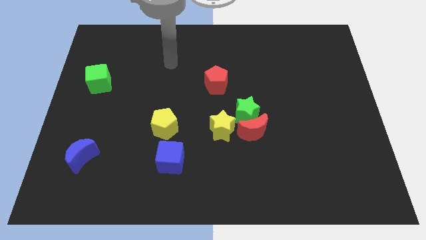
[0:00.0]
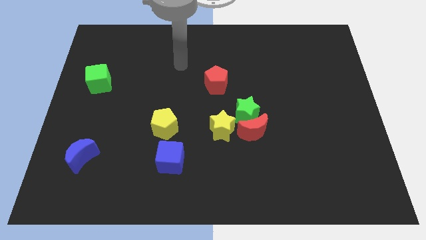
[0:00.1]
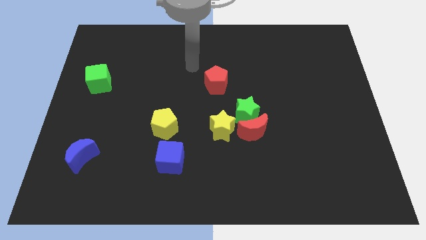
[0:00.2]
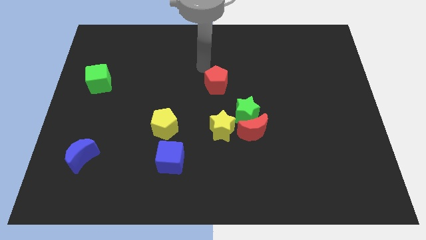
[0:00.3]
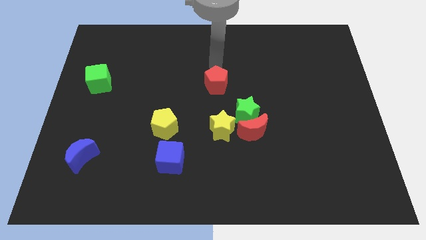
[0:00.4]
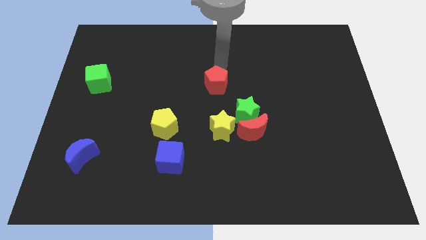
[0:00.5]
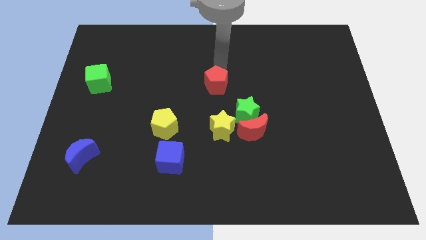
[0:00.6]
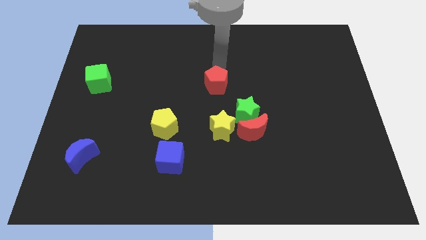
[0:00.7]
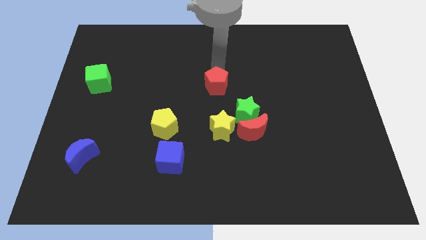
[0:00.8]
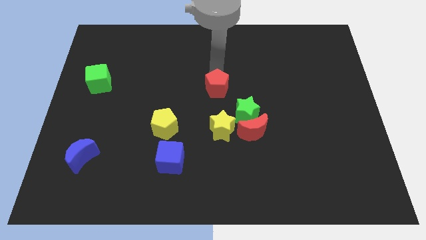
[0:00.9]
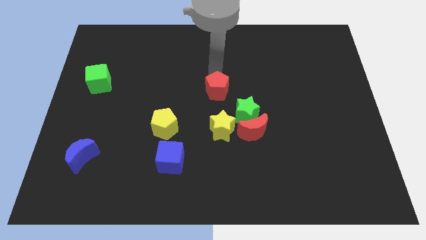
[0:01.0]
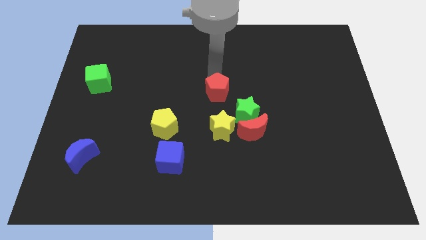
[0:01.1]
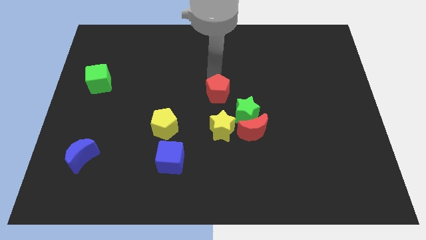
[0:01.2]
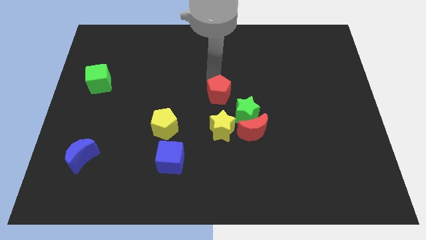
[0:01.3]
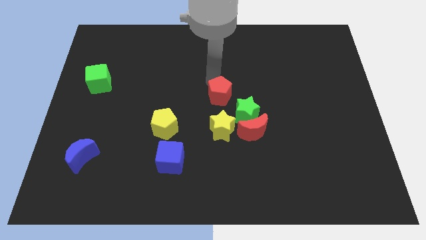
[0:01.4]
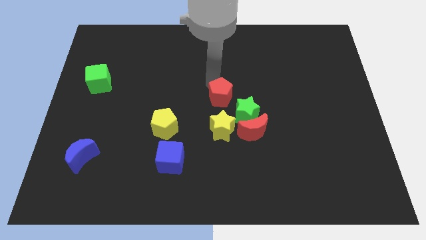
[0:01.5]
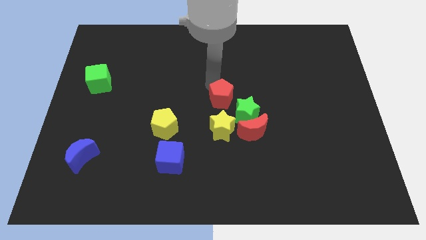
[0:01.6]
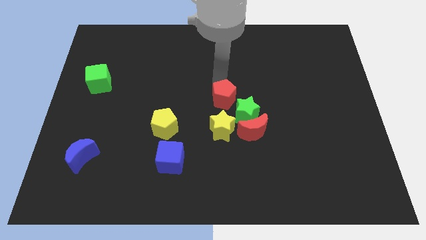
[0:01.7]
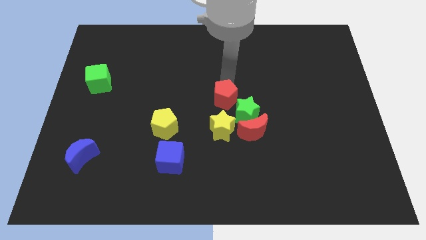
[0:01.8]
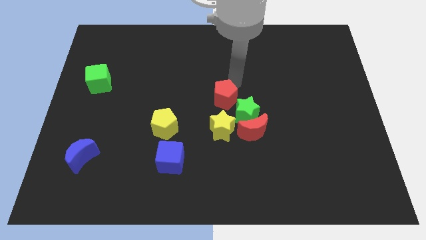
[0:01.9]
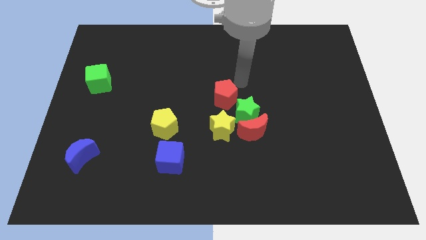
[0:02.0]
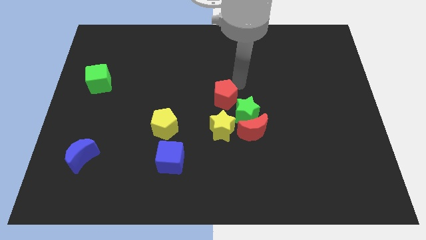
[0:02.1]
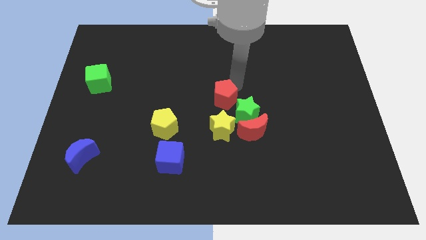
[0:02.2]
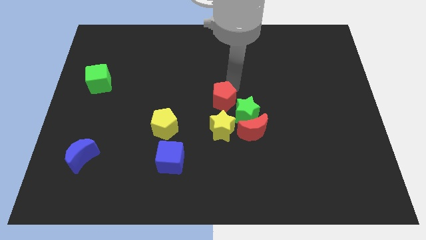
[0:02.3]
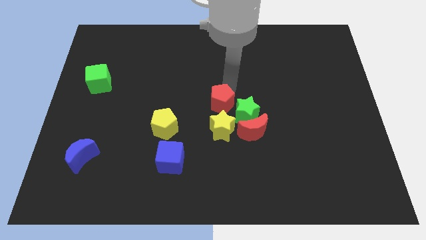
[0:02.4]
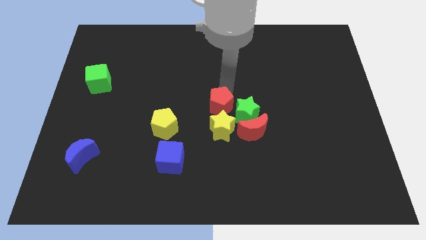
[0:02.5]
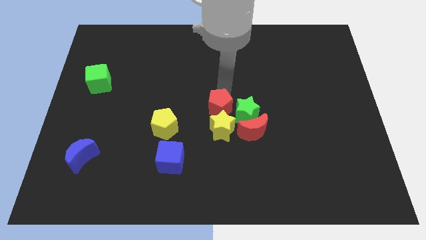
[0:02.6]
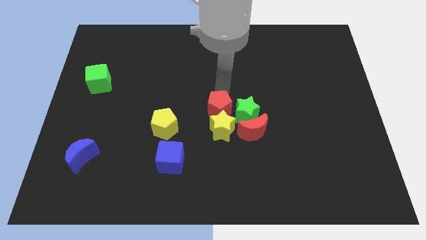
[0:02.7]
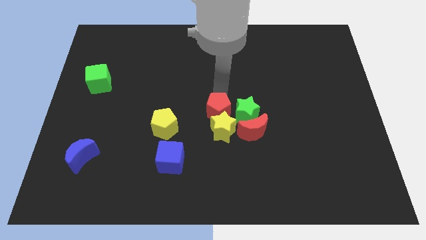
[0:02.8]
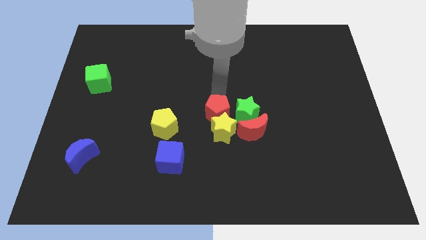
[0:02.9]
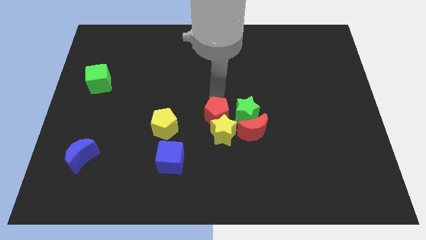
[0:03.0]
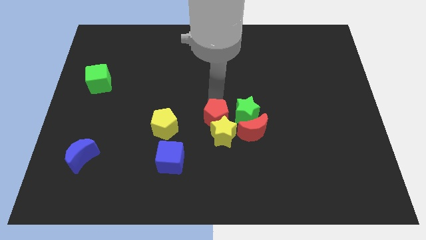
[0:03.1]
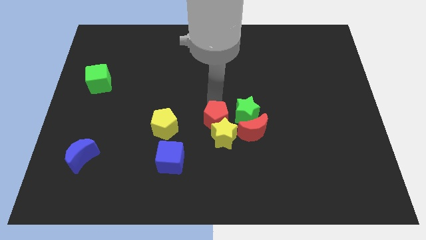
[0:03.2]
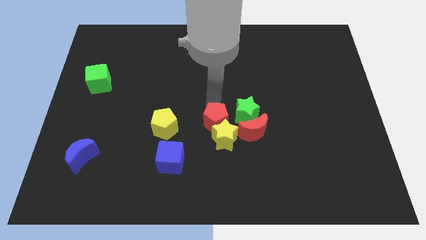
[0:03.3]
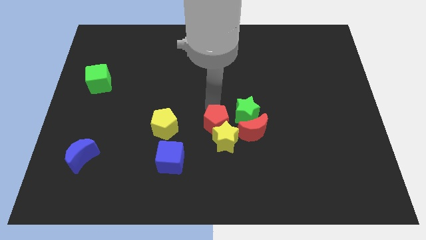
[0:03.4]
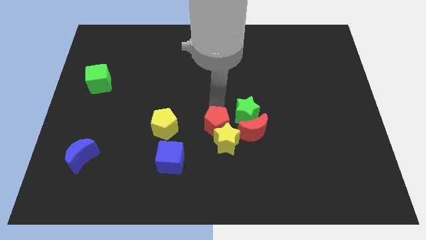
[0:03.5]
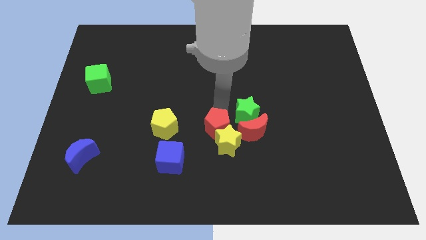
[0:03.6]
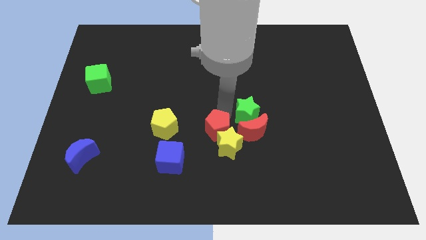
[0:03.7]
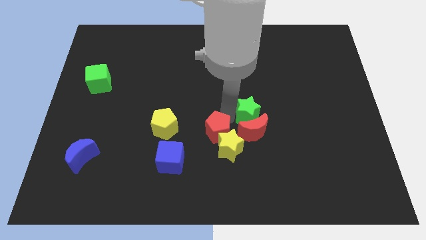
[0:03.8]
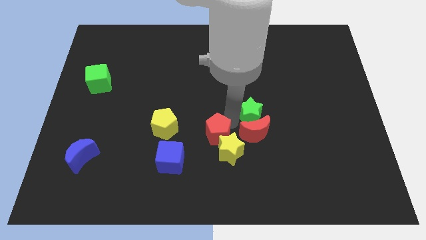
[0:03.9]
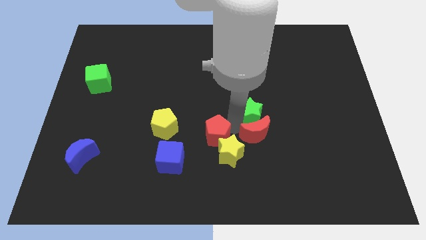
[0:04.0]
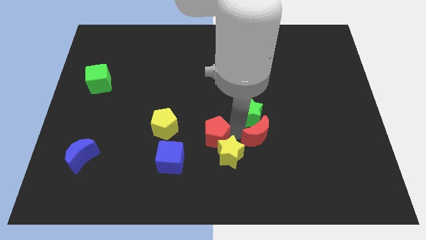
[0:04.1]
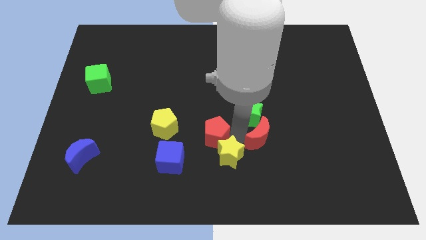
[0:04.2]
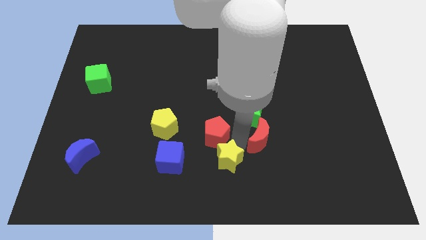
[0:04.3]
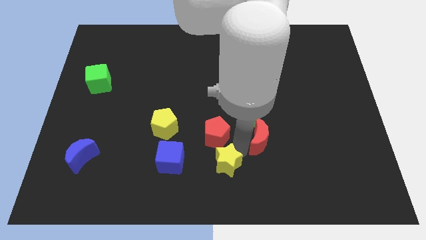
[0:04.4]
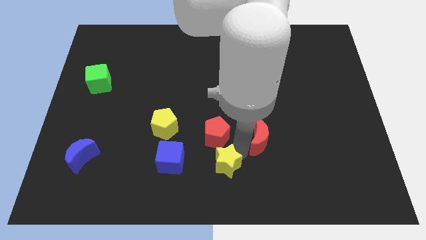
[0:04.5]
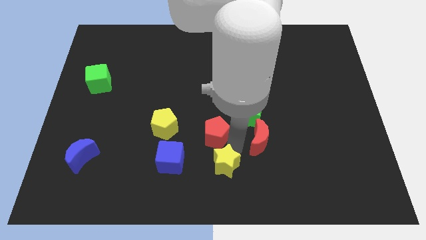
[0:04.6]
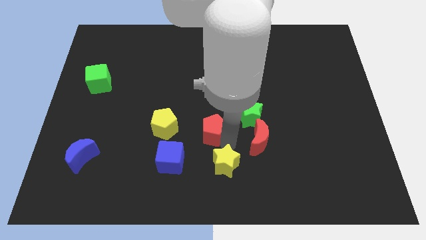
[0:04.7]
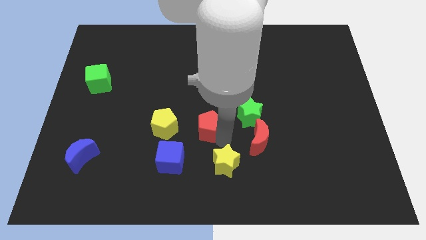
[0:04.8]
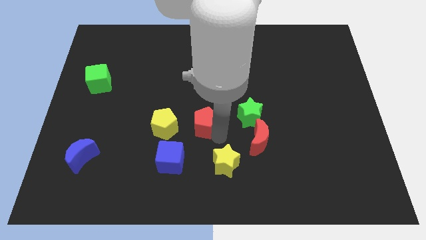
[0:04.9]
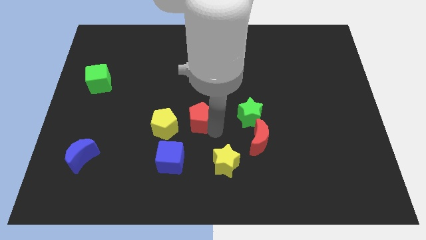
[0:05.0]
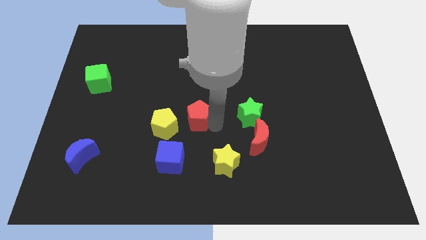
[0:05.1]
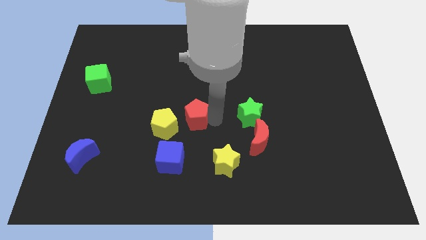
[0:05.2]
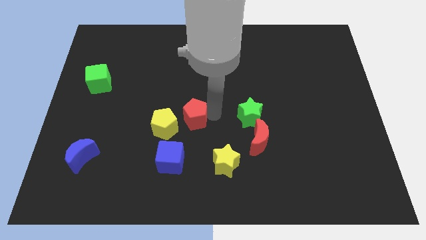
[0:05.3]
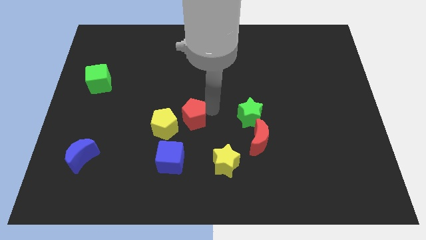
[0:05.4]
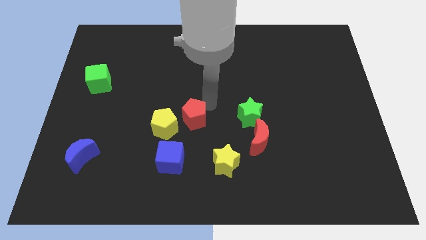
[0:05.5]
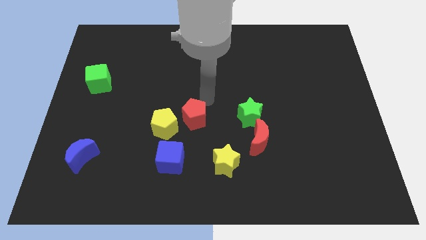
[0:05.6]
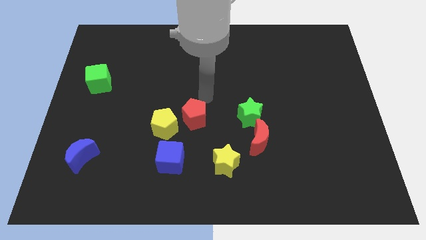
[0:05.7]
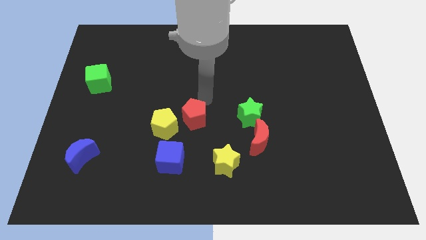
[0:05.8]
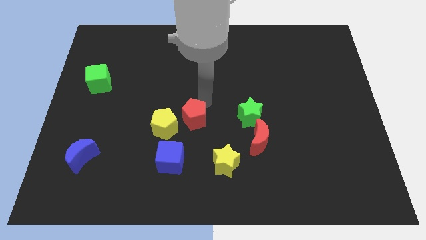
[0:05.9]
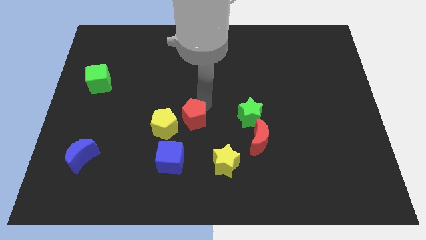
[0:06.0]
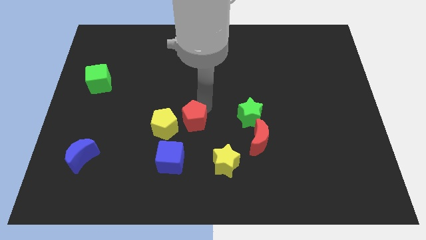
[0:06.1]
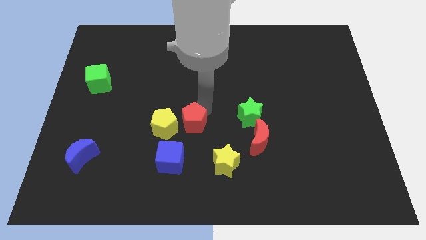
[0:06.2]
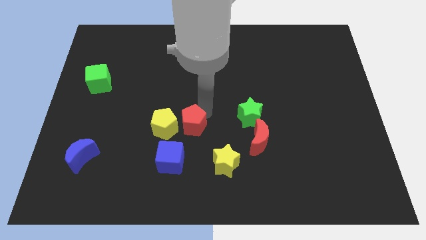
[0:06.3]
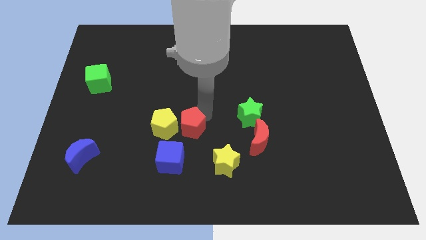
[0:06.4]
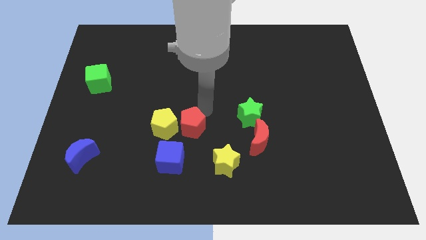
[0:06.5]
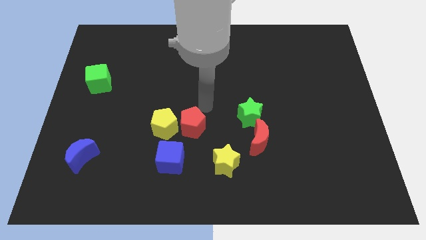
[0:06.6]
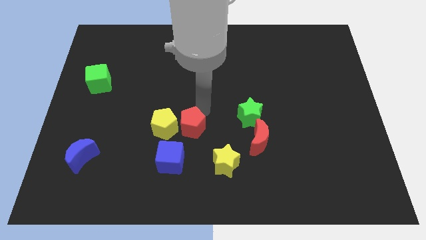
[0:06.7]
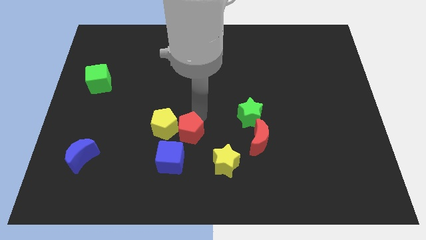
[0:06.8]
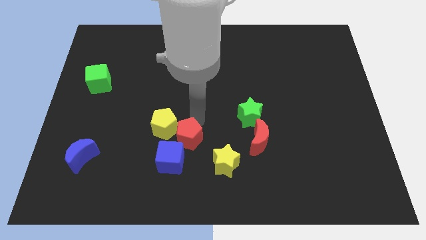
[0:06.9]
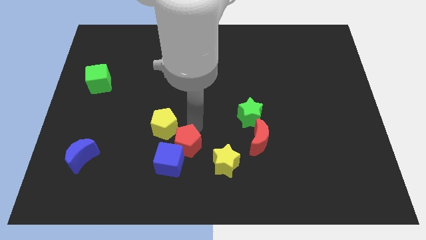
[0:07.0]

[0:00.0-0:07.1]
slide the red pentagon to the blue cube
